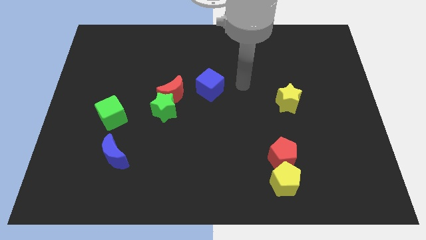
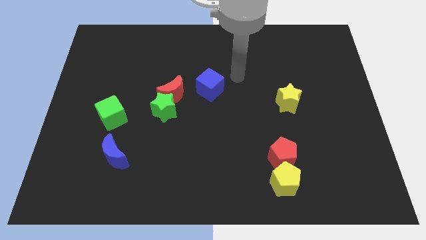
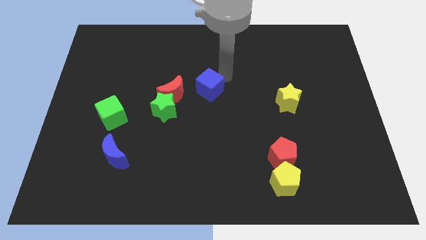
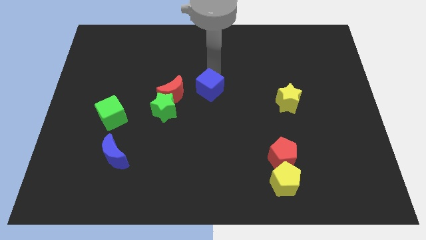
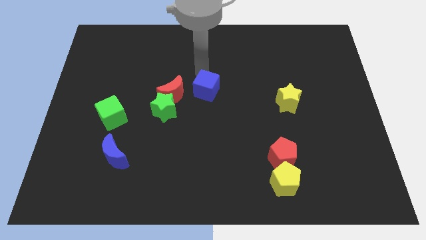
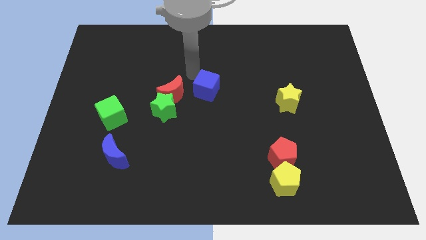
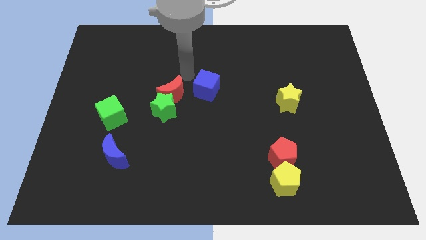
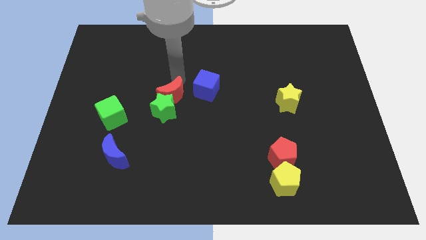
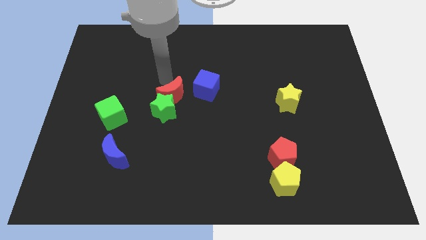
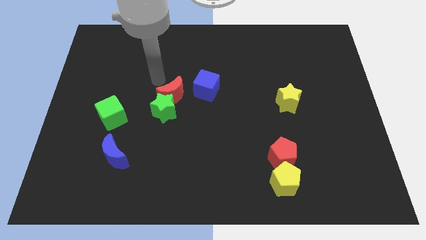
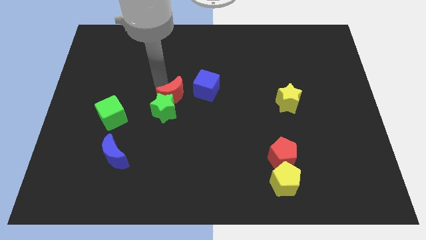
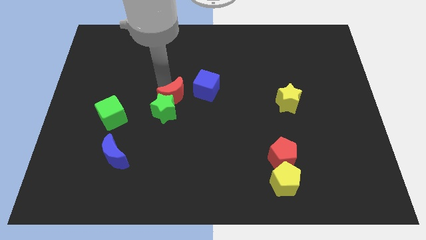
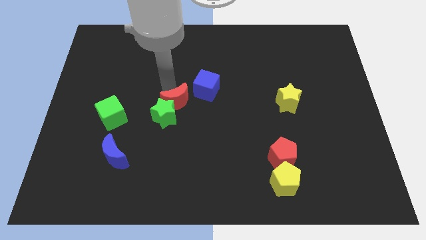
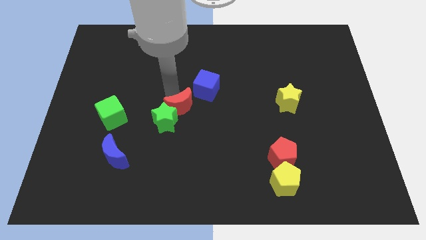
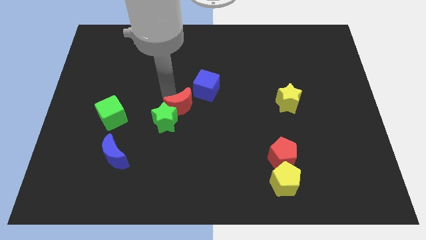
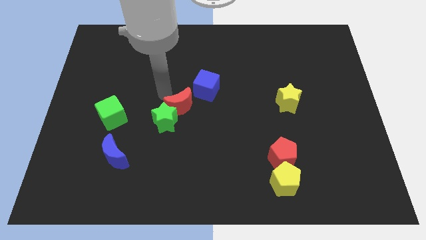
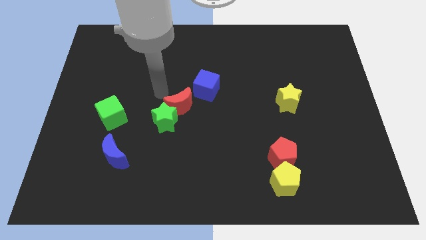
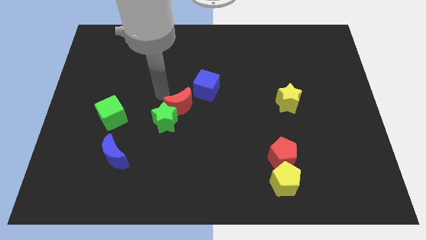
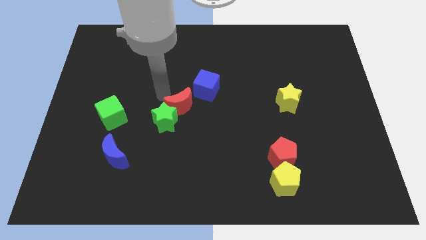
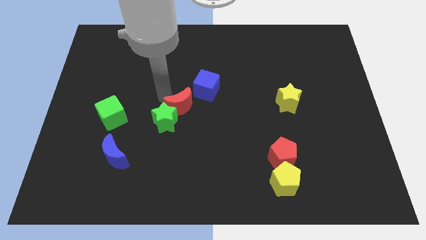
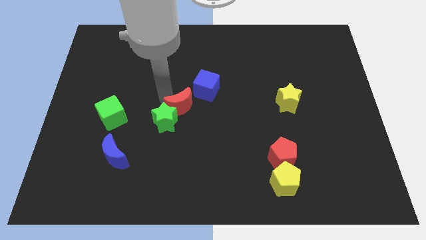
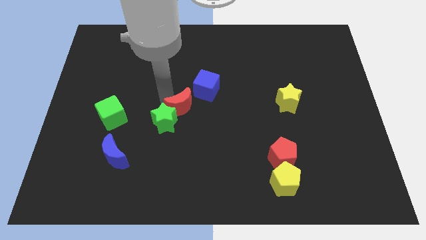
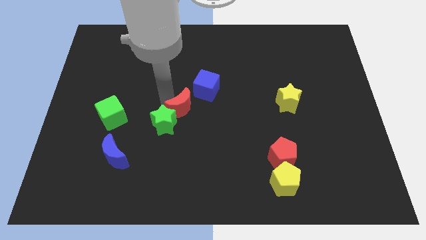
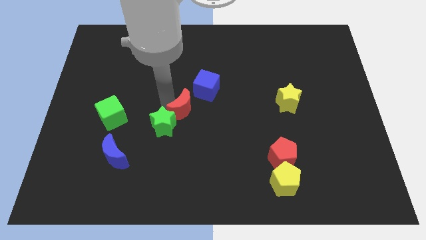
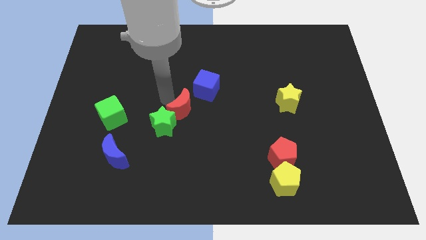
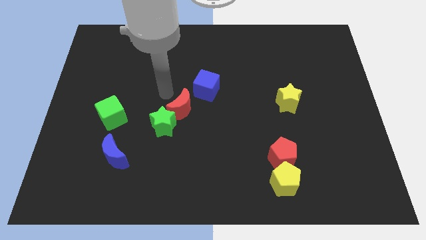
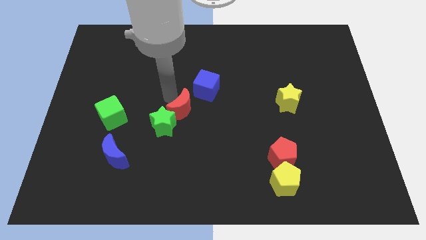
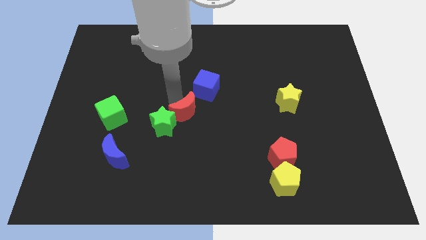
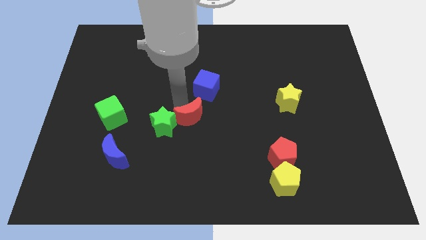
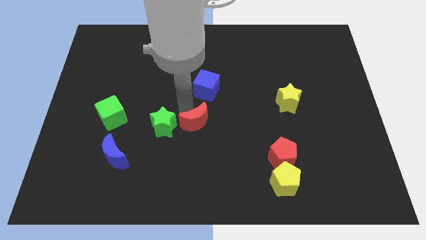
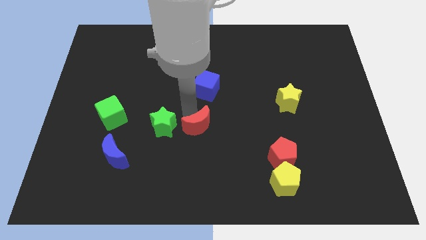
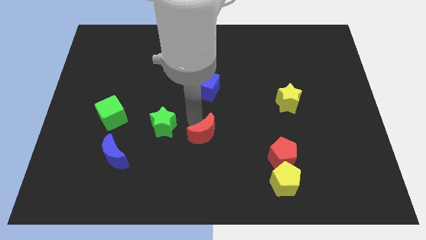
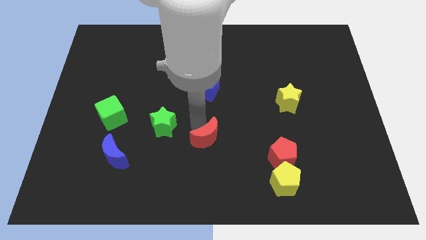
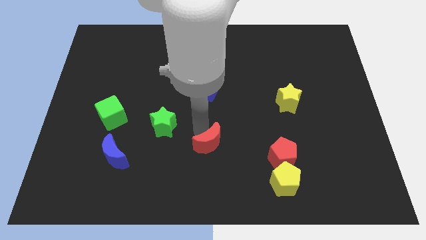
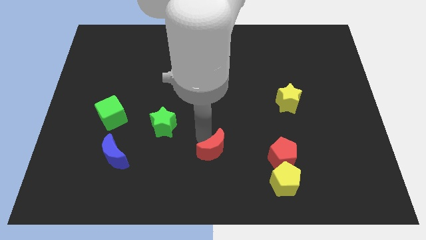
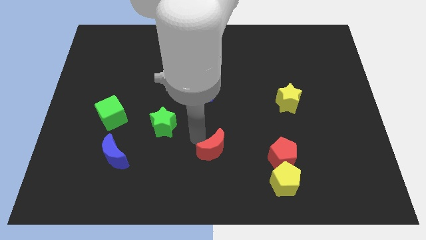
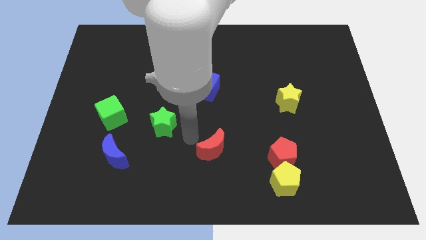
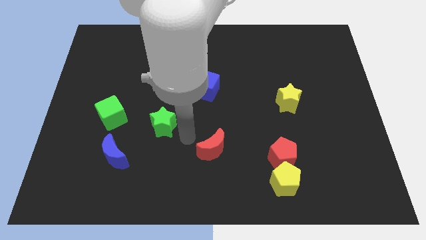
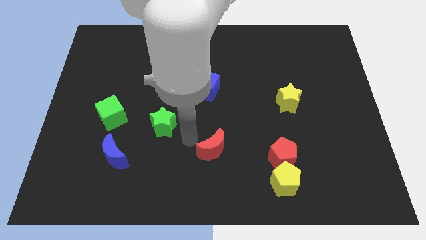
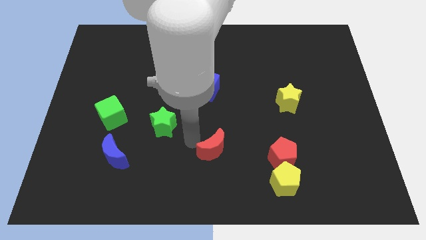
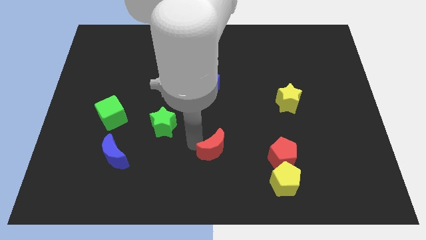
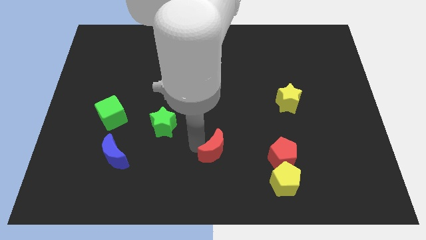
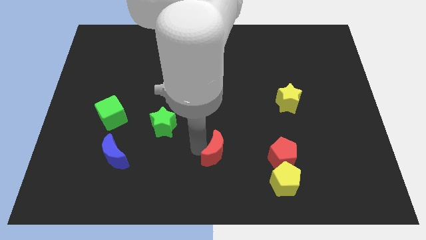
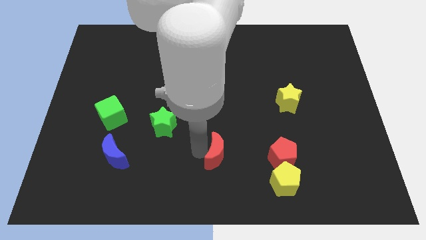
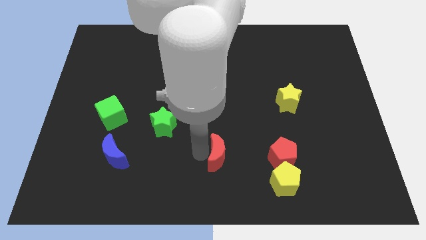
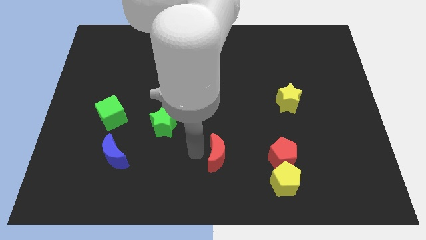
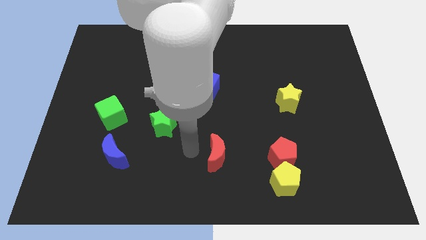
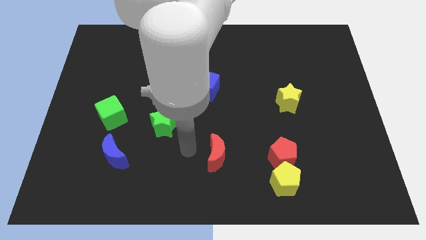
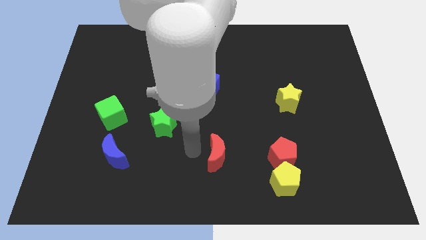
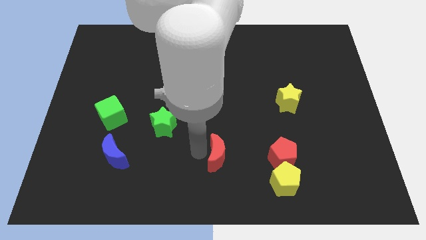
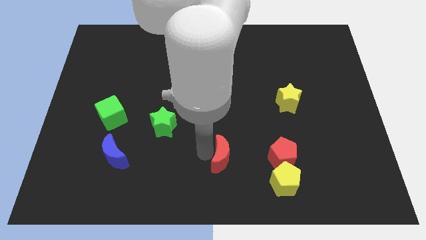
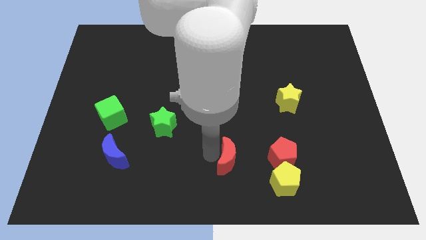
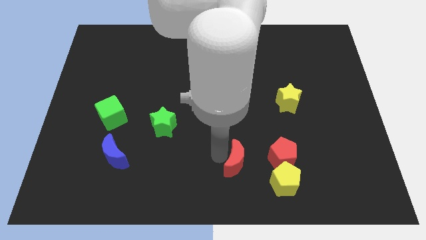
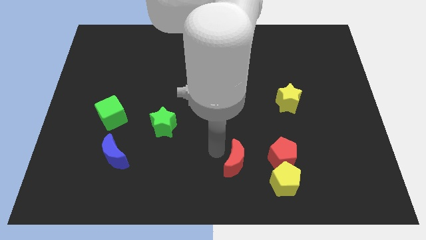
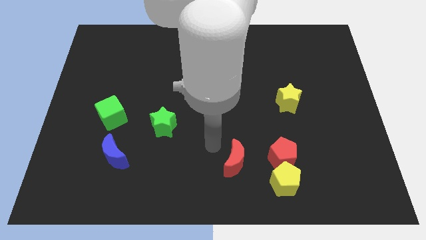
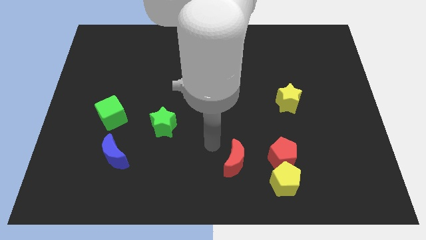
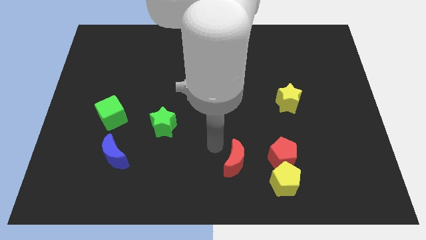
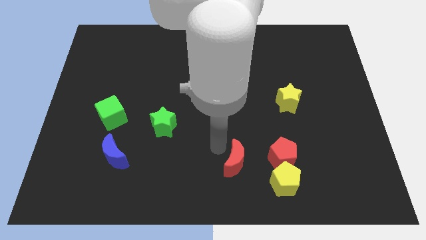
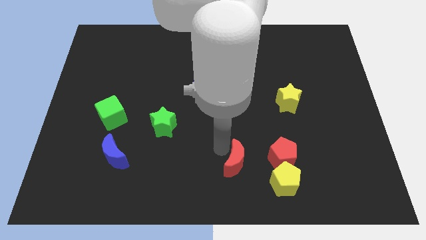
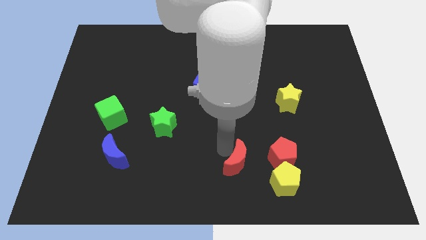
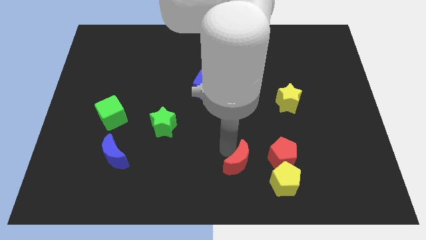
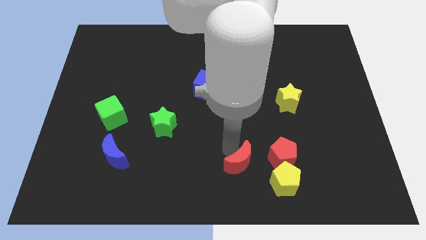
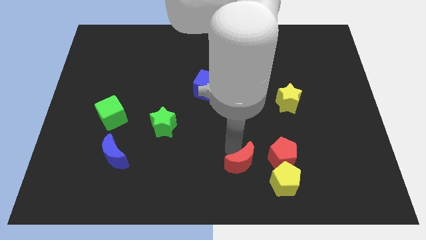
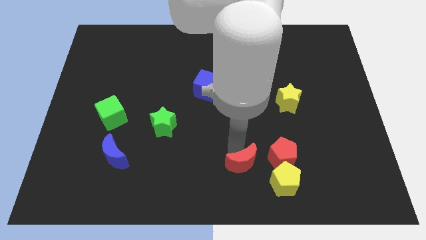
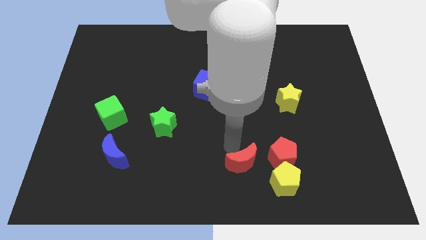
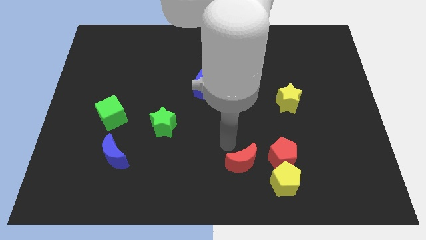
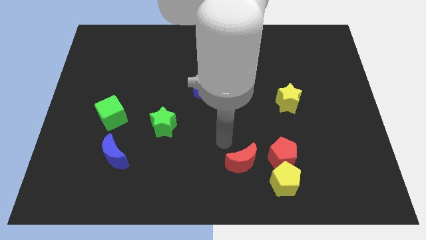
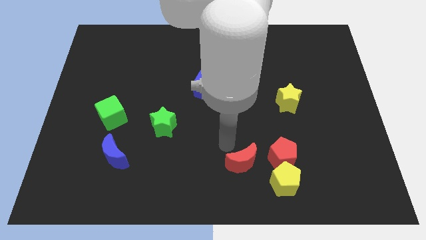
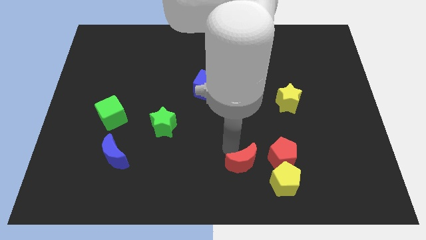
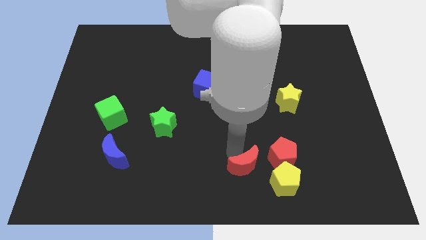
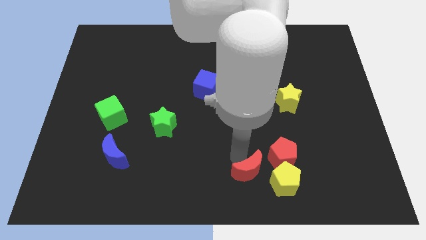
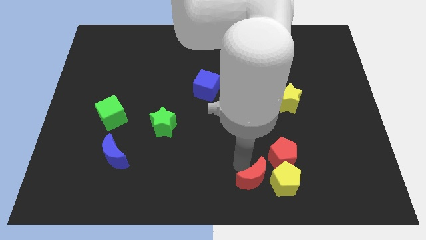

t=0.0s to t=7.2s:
put the red moon next to the yellow pentagon
